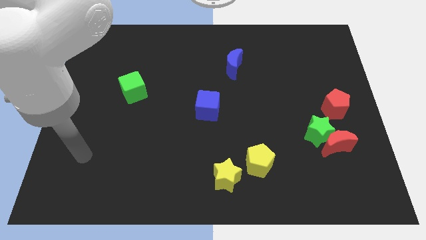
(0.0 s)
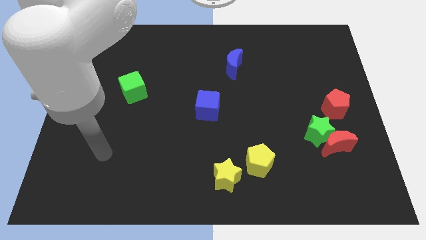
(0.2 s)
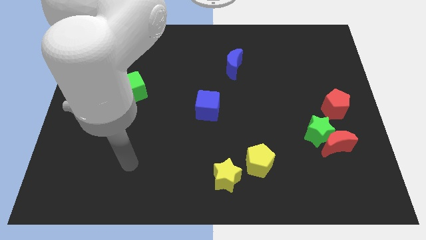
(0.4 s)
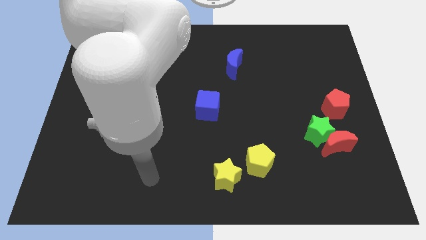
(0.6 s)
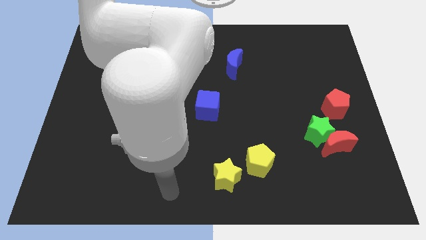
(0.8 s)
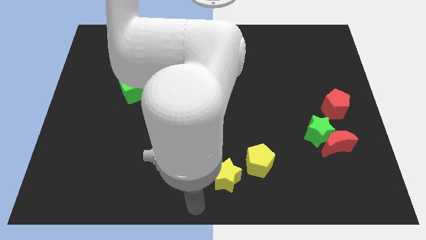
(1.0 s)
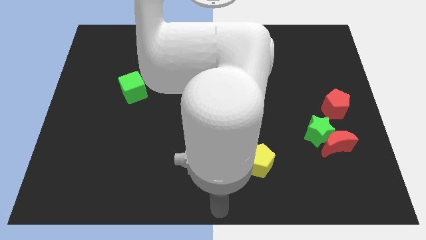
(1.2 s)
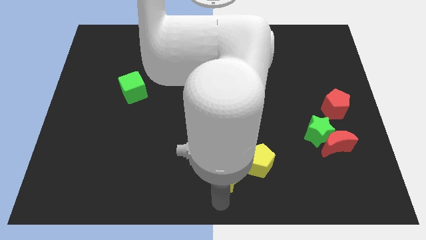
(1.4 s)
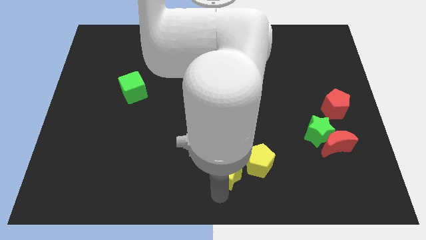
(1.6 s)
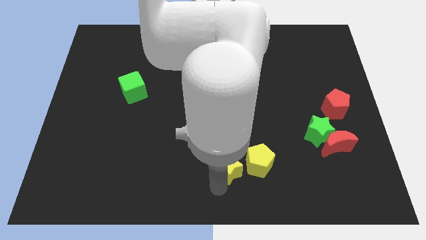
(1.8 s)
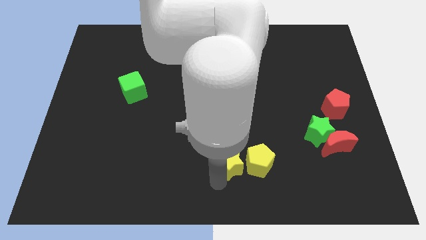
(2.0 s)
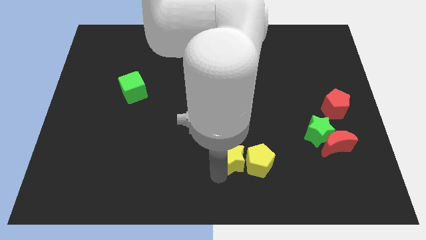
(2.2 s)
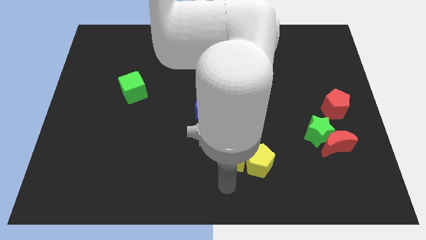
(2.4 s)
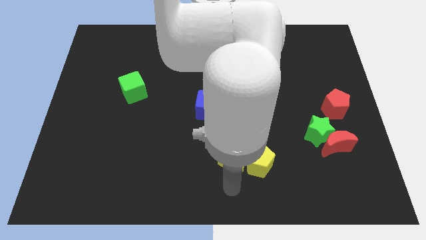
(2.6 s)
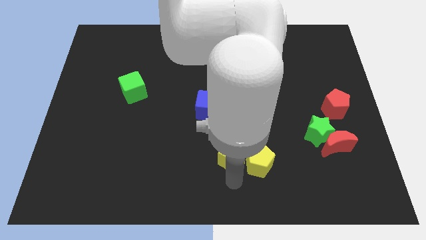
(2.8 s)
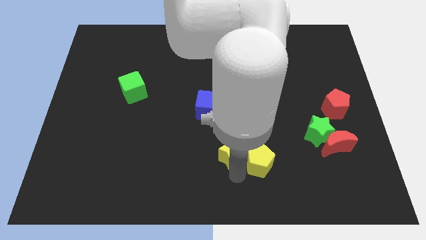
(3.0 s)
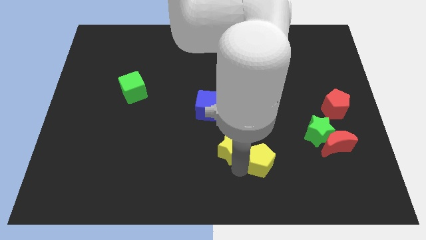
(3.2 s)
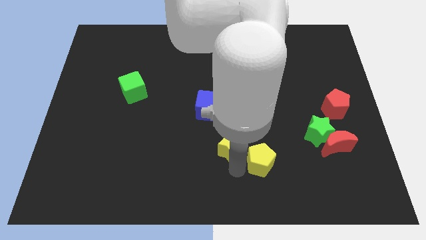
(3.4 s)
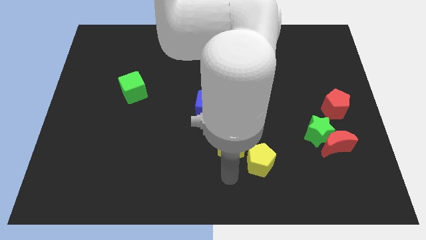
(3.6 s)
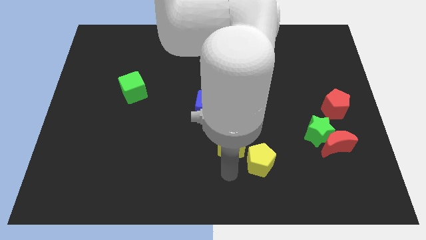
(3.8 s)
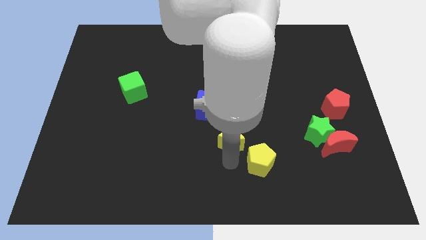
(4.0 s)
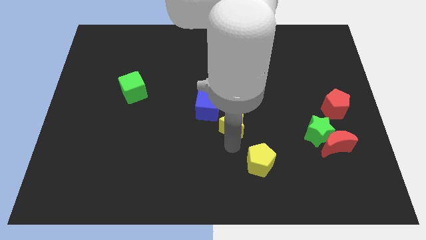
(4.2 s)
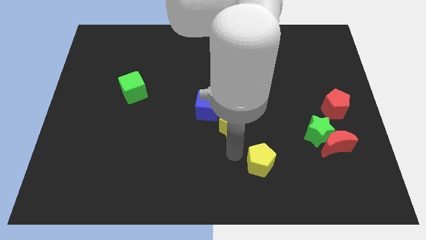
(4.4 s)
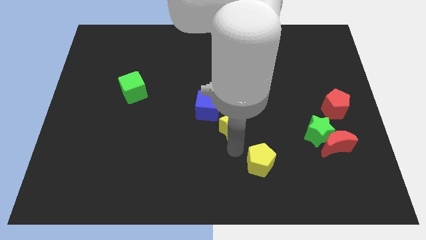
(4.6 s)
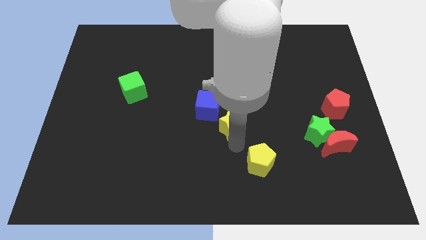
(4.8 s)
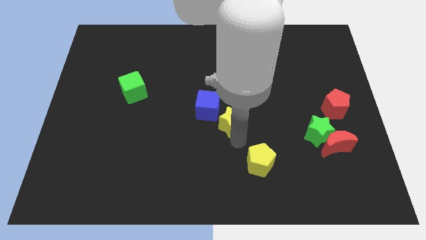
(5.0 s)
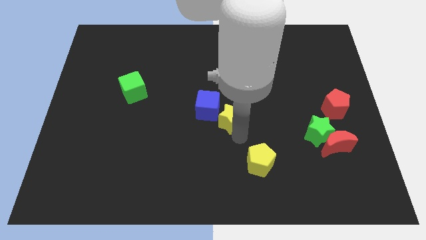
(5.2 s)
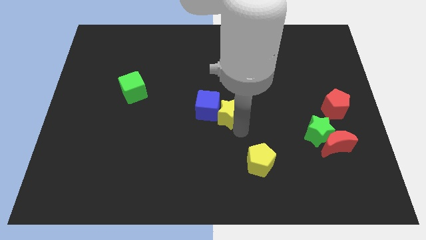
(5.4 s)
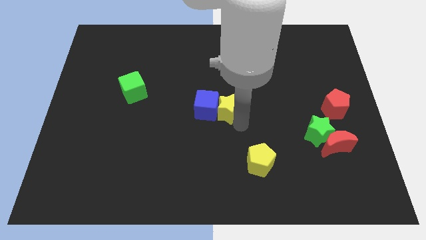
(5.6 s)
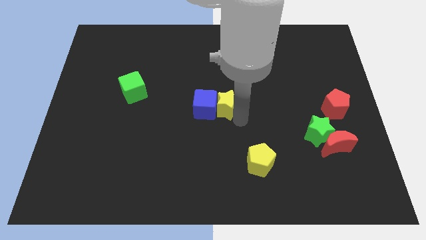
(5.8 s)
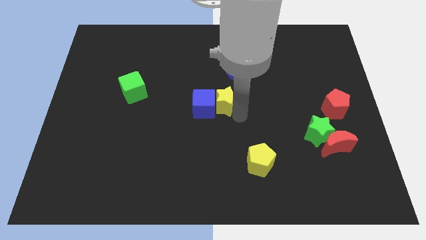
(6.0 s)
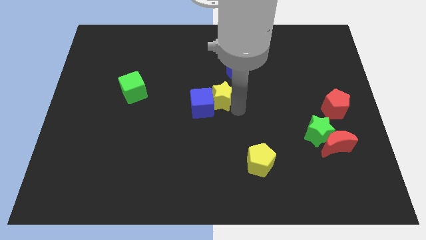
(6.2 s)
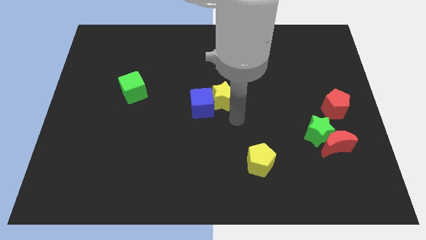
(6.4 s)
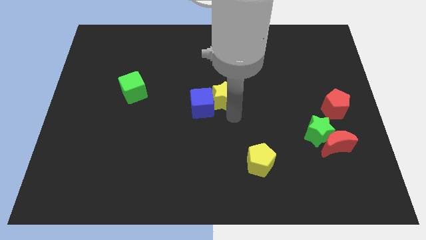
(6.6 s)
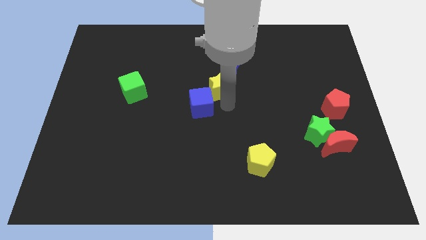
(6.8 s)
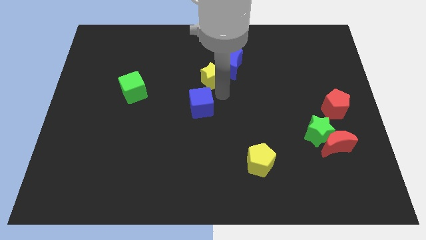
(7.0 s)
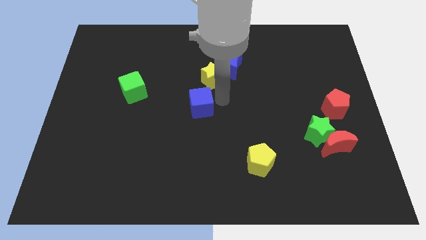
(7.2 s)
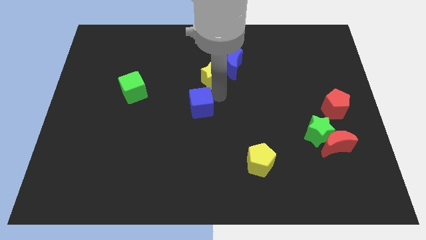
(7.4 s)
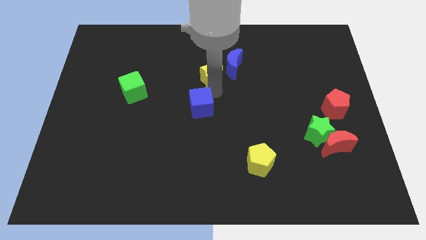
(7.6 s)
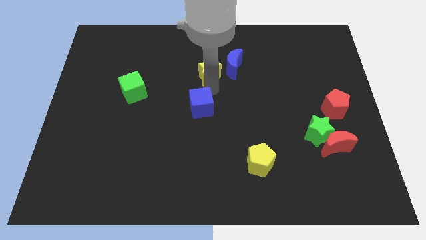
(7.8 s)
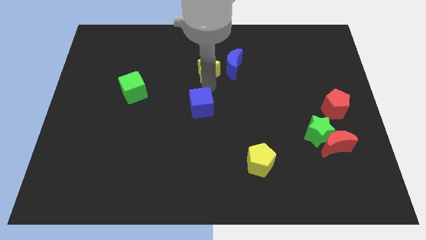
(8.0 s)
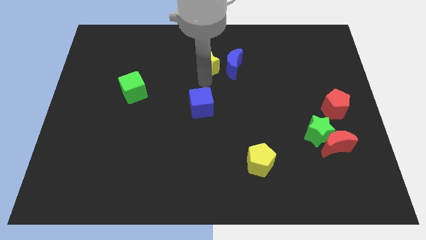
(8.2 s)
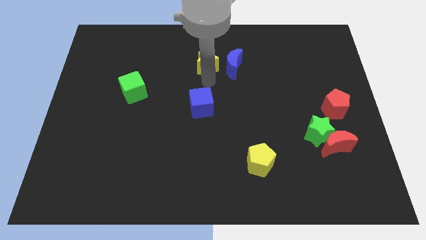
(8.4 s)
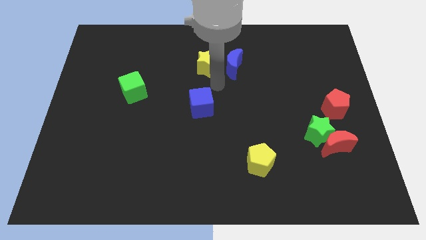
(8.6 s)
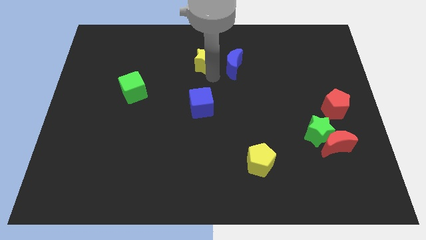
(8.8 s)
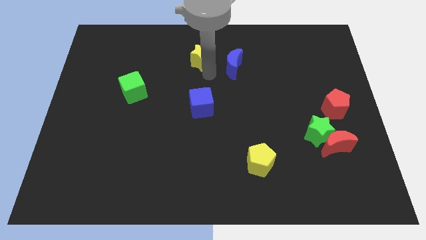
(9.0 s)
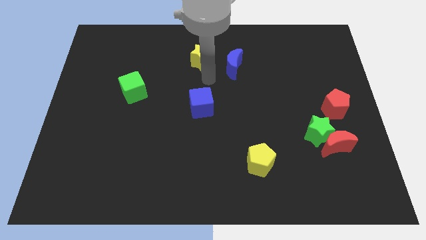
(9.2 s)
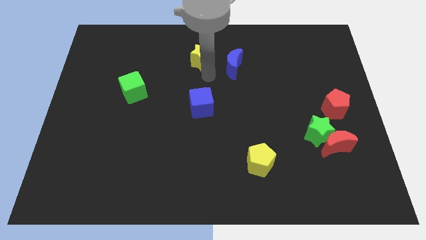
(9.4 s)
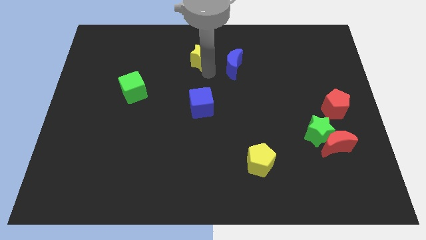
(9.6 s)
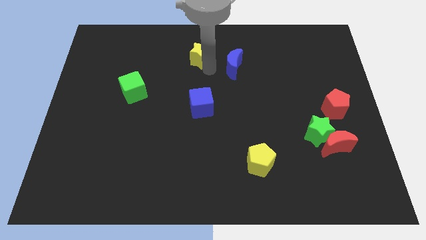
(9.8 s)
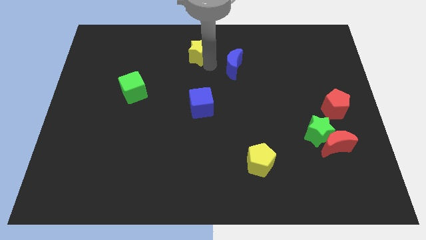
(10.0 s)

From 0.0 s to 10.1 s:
push the yellow star to the top

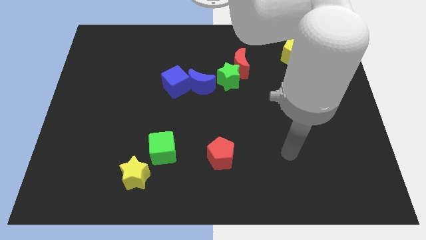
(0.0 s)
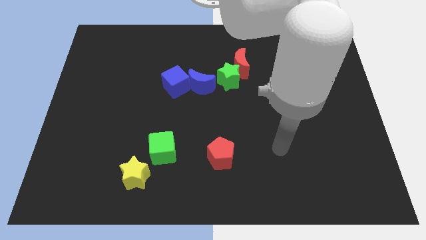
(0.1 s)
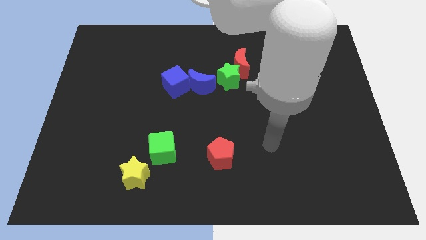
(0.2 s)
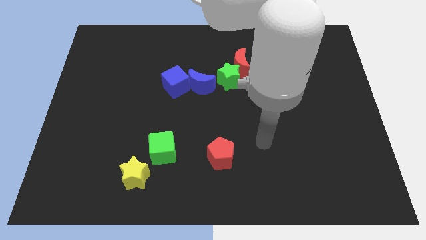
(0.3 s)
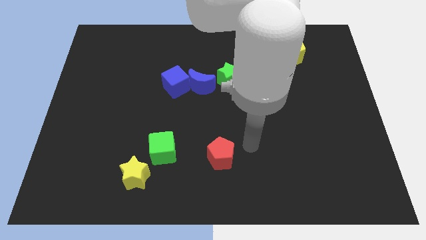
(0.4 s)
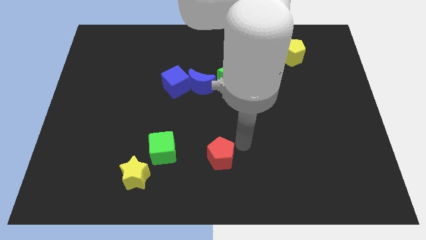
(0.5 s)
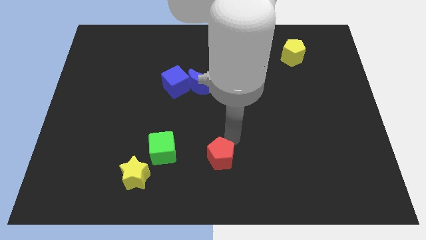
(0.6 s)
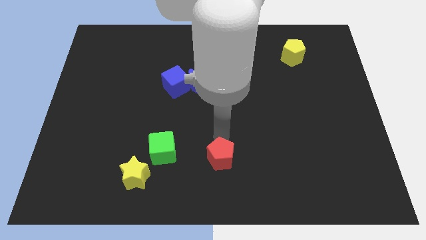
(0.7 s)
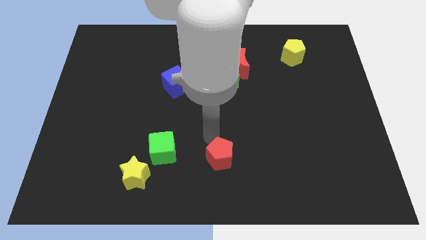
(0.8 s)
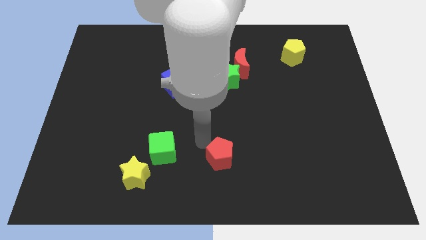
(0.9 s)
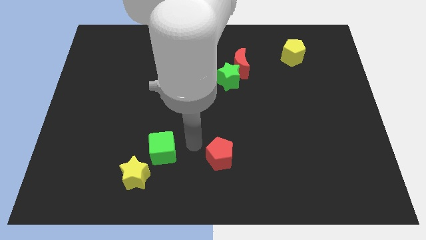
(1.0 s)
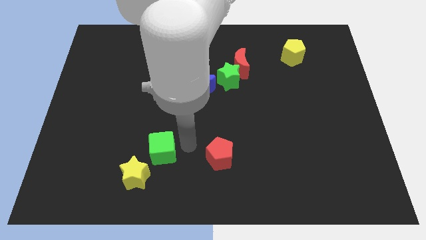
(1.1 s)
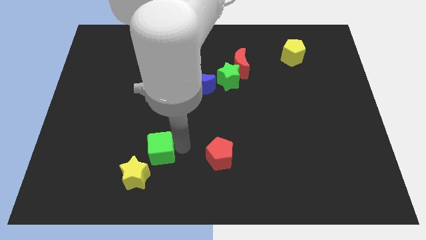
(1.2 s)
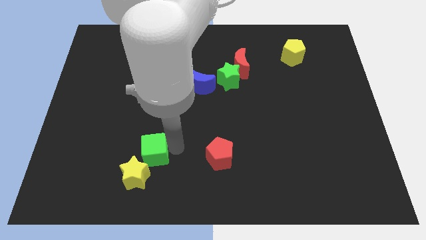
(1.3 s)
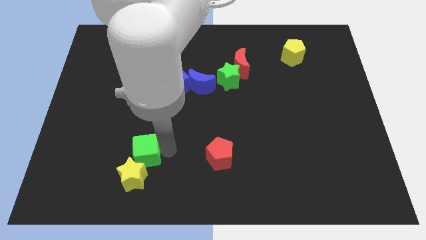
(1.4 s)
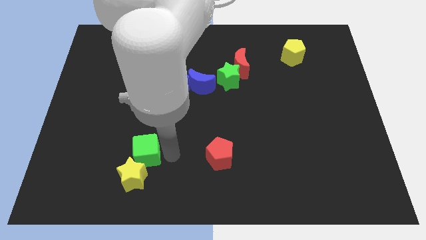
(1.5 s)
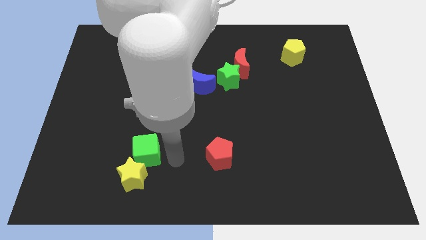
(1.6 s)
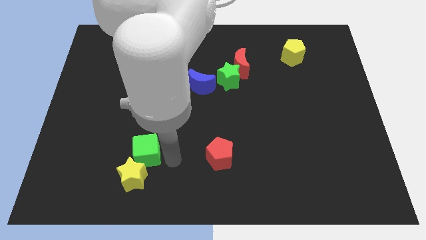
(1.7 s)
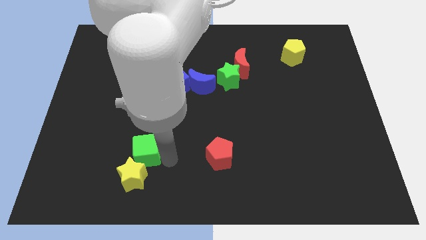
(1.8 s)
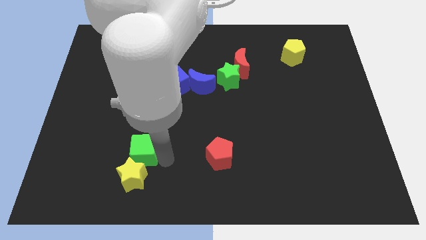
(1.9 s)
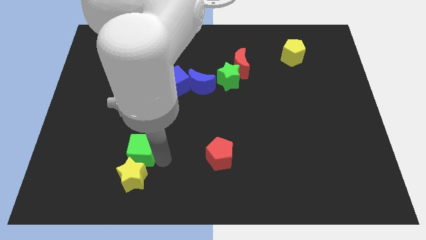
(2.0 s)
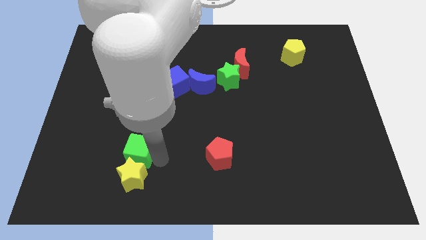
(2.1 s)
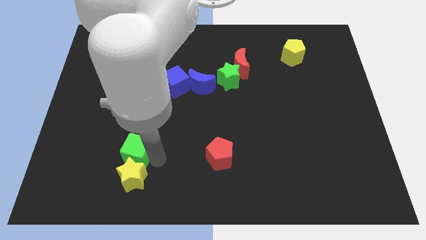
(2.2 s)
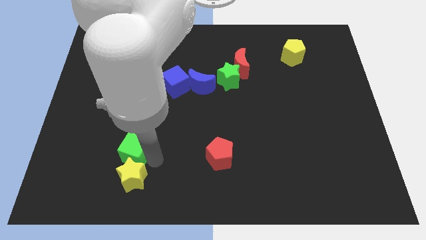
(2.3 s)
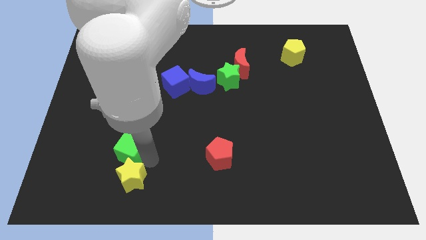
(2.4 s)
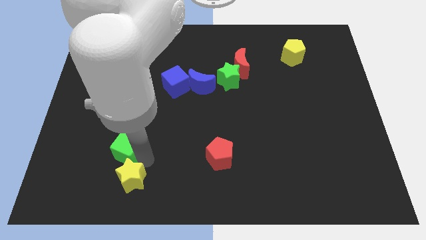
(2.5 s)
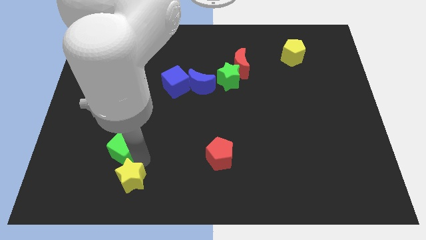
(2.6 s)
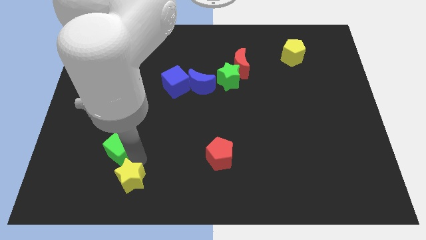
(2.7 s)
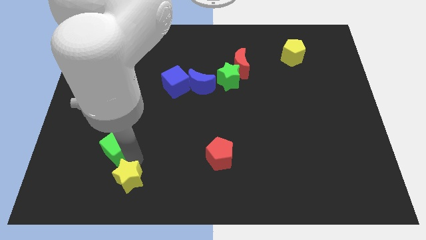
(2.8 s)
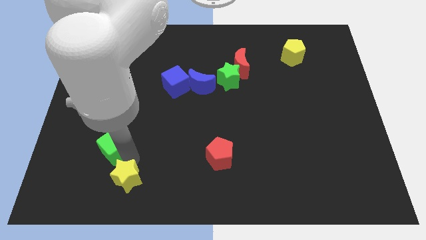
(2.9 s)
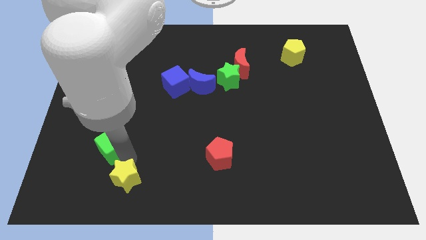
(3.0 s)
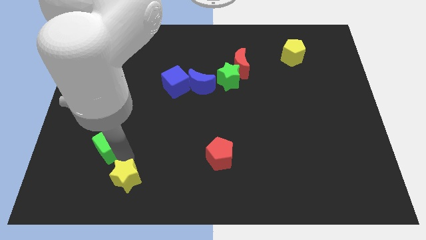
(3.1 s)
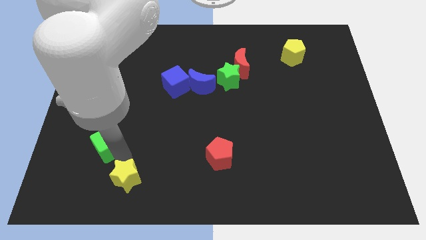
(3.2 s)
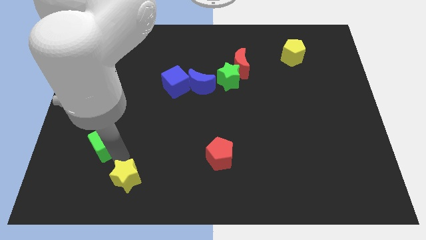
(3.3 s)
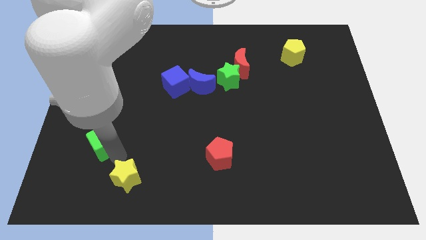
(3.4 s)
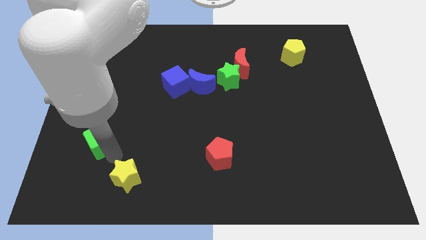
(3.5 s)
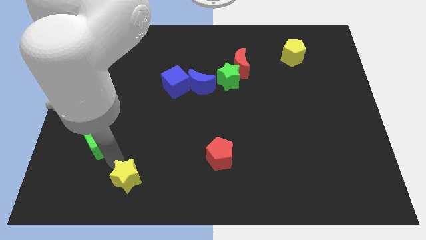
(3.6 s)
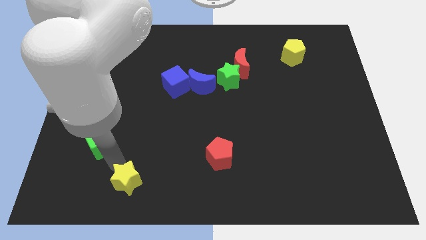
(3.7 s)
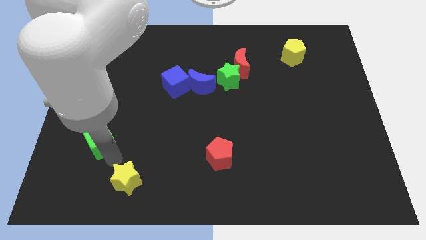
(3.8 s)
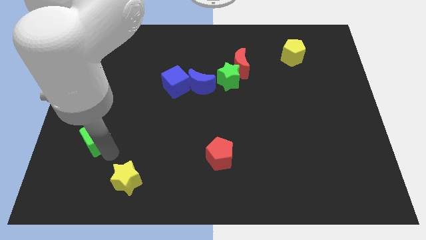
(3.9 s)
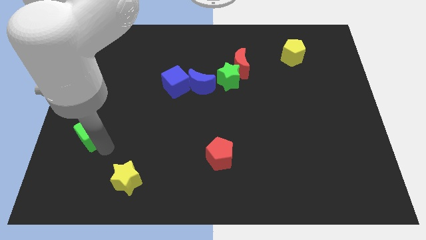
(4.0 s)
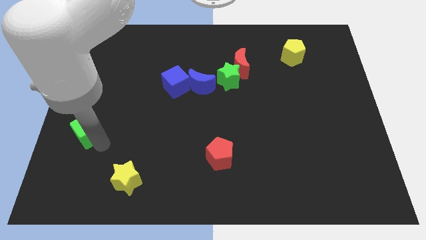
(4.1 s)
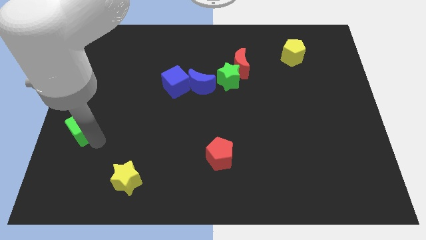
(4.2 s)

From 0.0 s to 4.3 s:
push the green cube to the left side of the board
